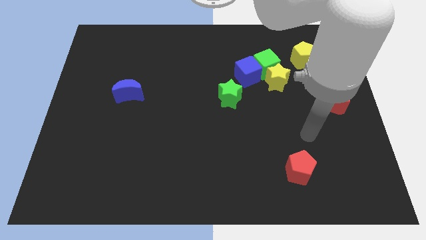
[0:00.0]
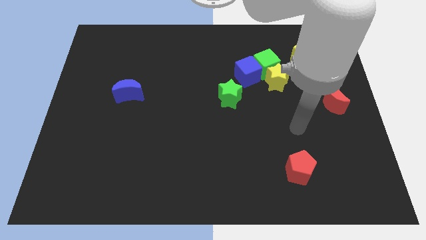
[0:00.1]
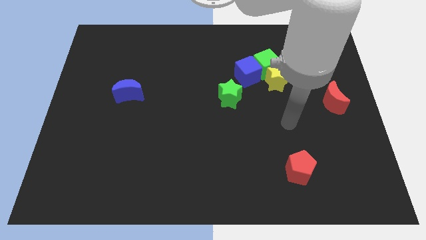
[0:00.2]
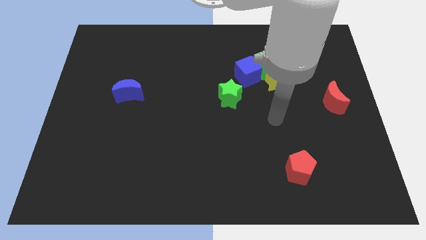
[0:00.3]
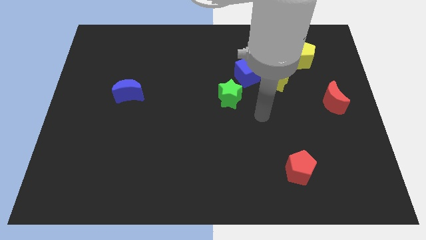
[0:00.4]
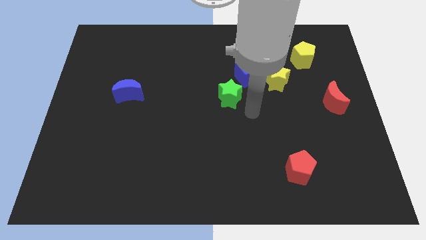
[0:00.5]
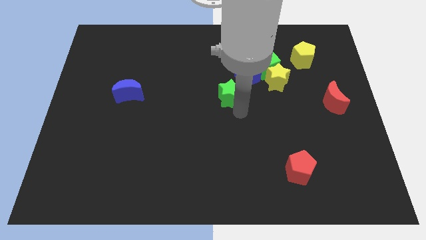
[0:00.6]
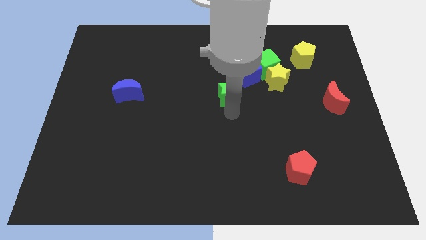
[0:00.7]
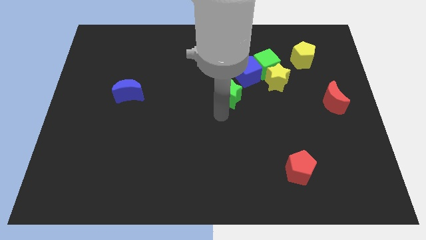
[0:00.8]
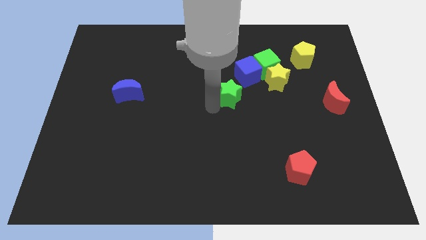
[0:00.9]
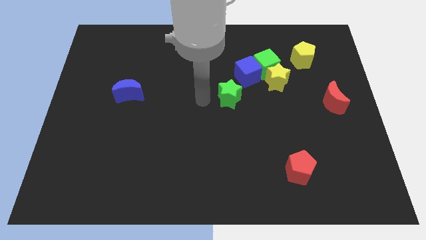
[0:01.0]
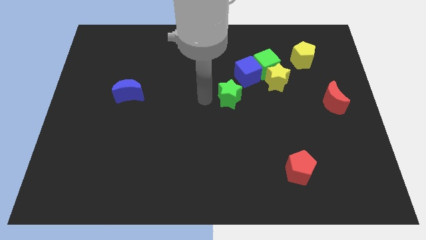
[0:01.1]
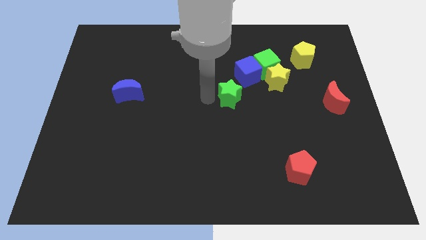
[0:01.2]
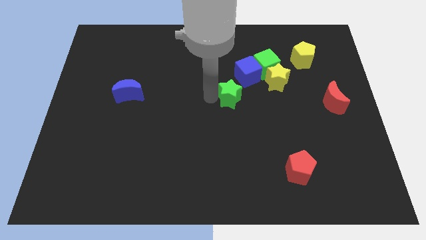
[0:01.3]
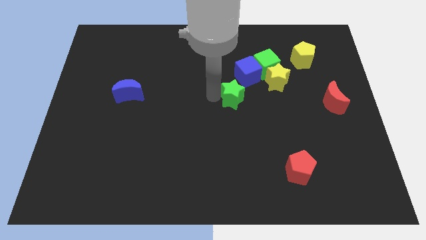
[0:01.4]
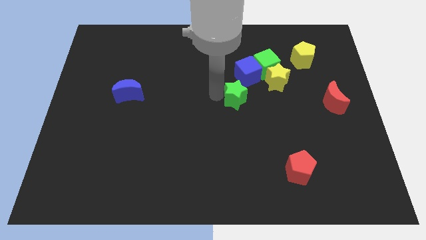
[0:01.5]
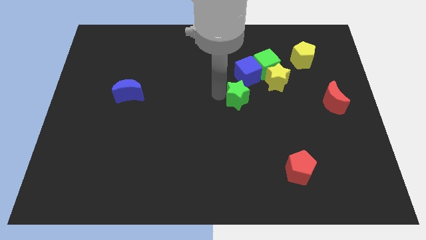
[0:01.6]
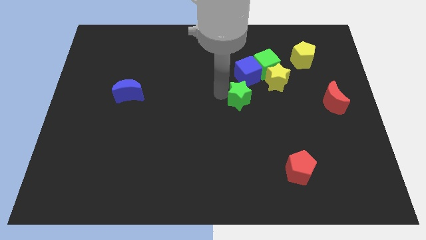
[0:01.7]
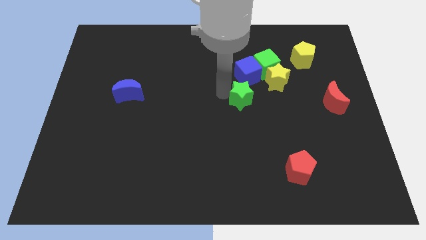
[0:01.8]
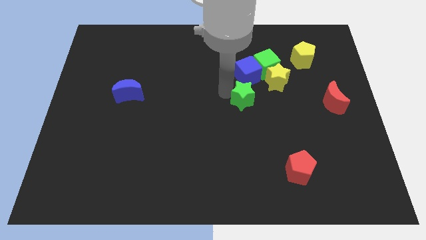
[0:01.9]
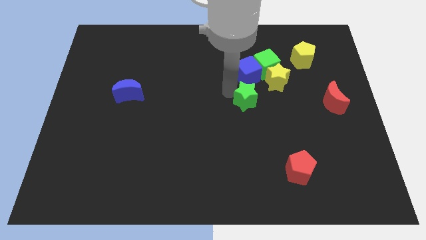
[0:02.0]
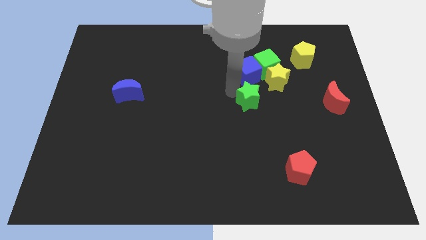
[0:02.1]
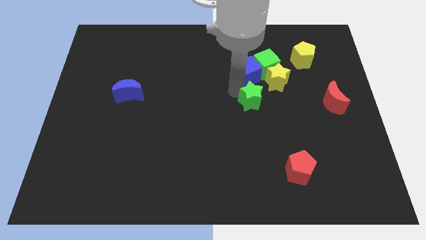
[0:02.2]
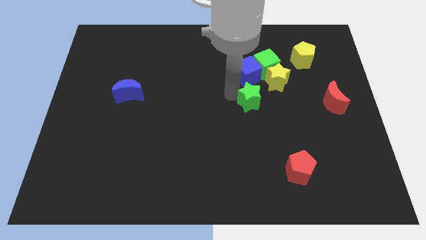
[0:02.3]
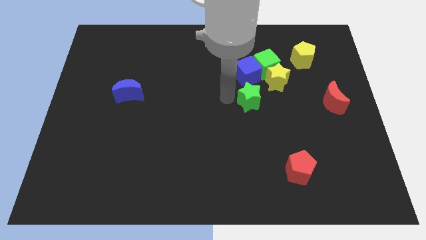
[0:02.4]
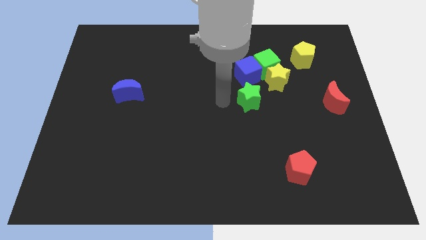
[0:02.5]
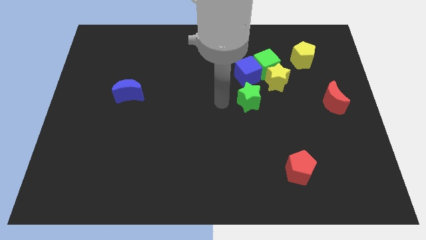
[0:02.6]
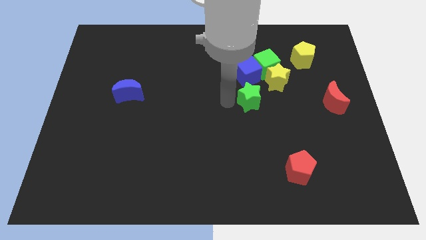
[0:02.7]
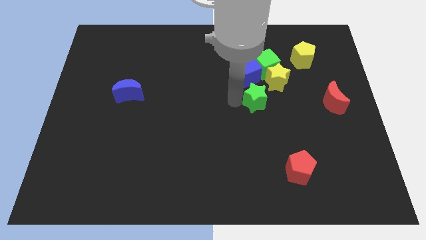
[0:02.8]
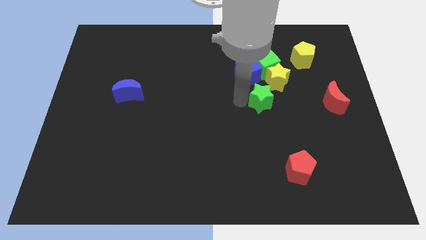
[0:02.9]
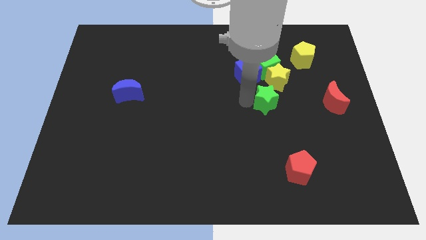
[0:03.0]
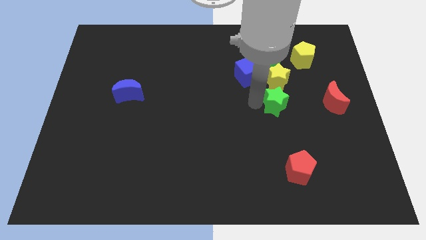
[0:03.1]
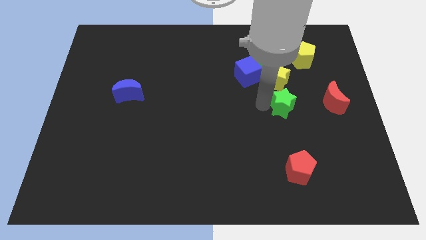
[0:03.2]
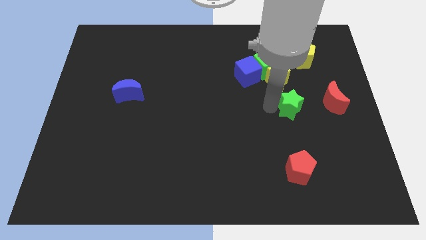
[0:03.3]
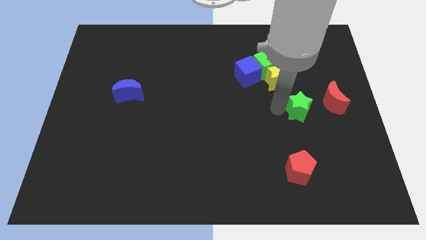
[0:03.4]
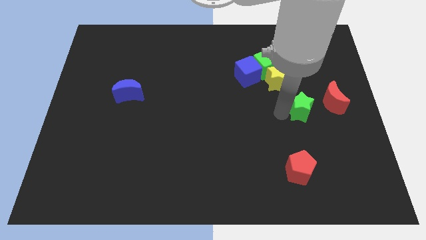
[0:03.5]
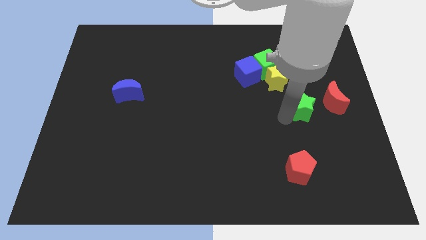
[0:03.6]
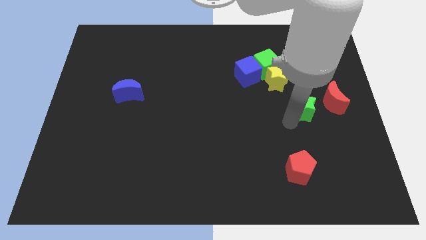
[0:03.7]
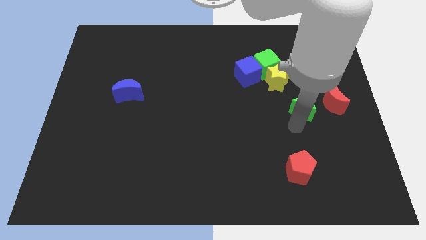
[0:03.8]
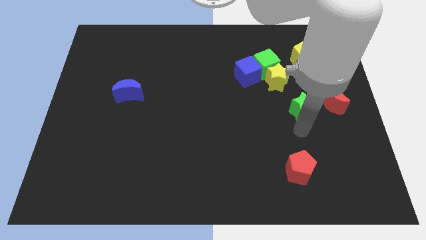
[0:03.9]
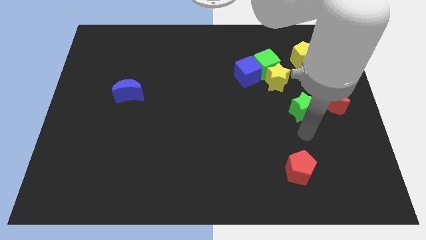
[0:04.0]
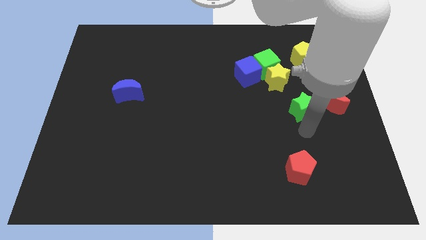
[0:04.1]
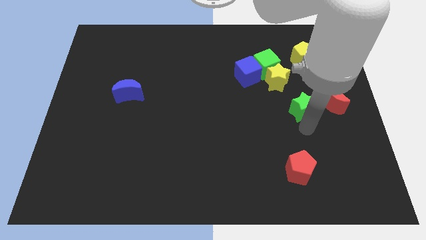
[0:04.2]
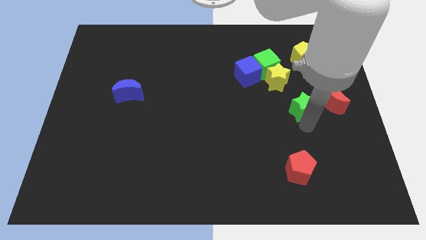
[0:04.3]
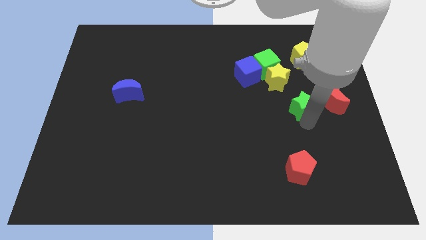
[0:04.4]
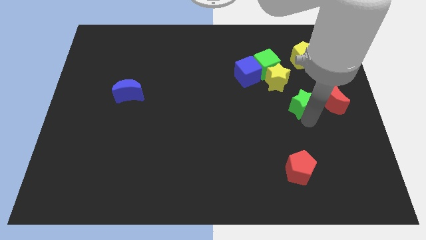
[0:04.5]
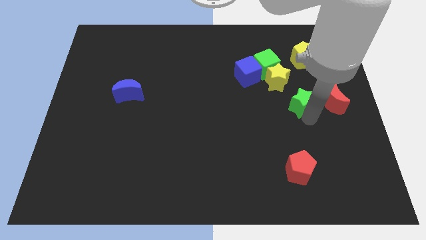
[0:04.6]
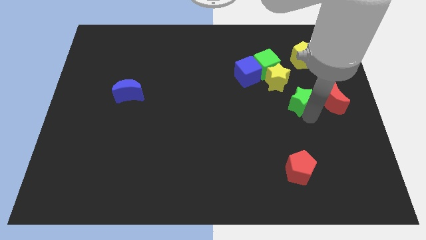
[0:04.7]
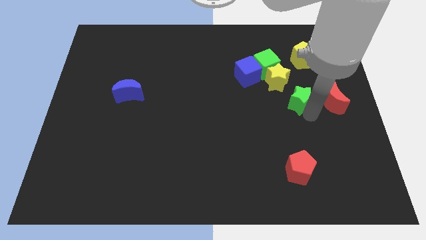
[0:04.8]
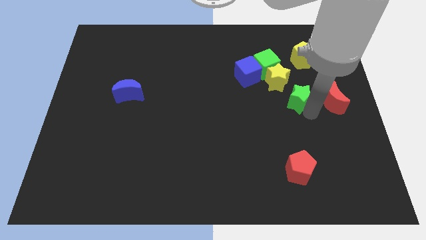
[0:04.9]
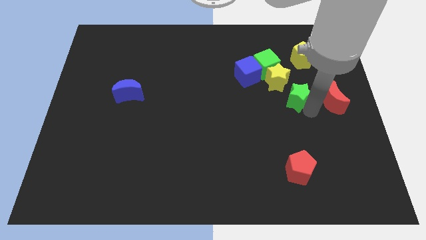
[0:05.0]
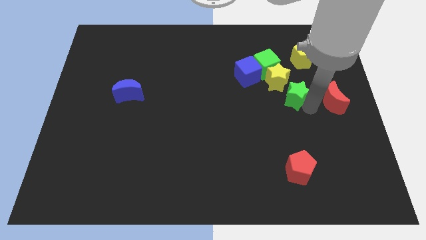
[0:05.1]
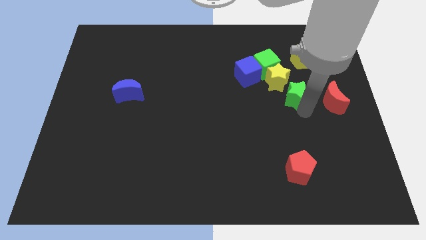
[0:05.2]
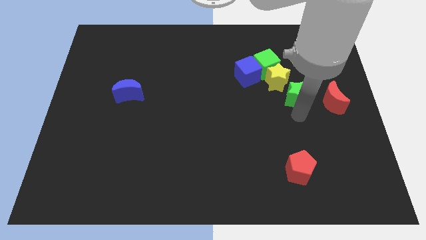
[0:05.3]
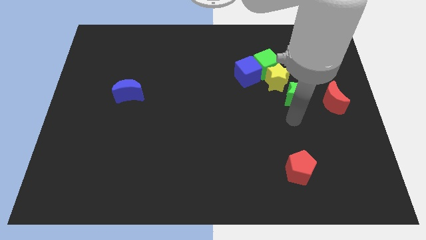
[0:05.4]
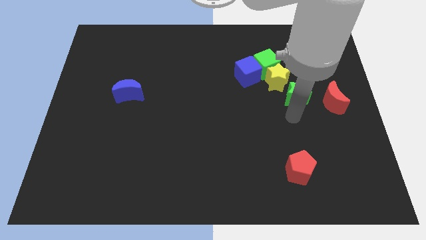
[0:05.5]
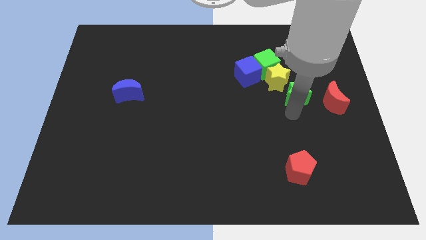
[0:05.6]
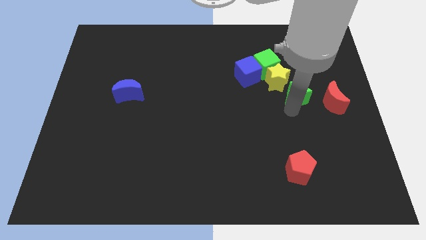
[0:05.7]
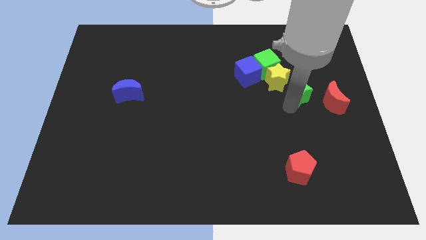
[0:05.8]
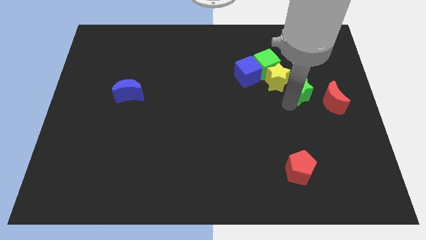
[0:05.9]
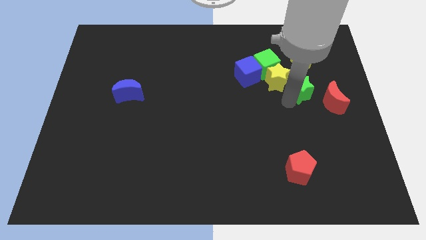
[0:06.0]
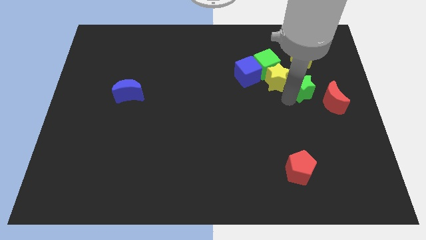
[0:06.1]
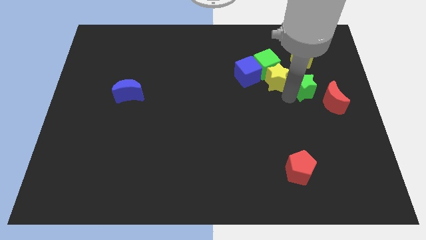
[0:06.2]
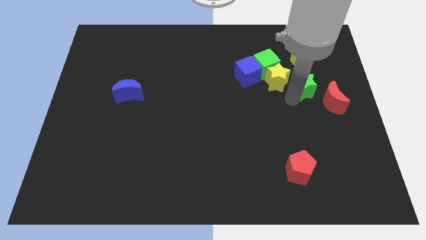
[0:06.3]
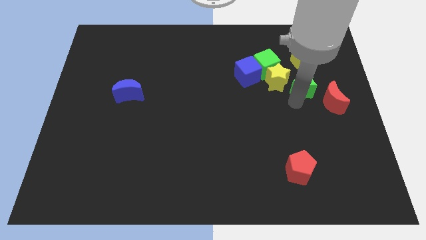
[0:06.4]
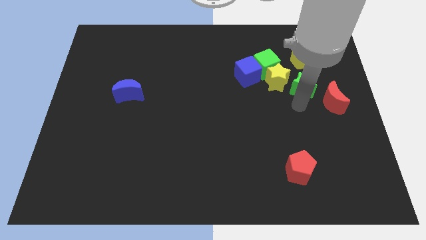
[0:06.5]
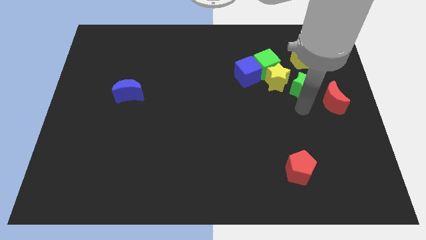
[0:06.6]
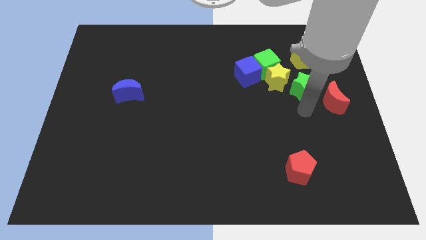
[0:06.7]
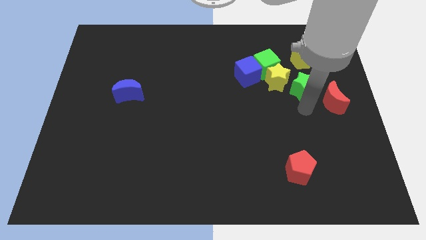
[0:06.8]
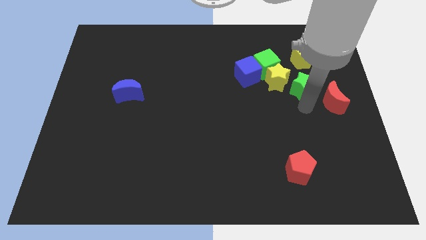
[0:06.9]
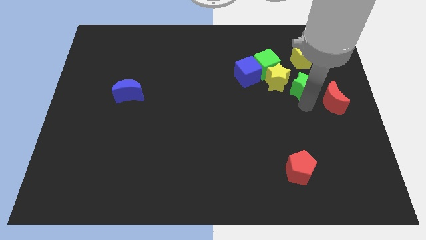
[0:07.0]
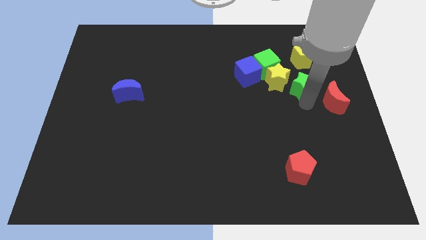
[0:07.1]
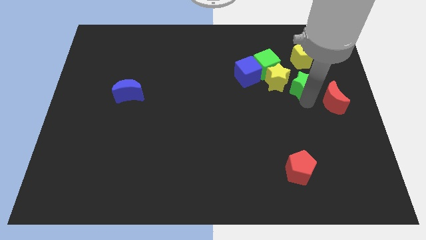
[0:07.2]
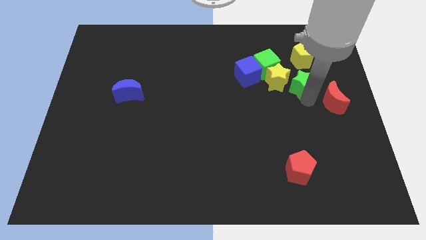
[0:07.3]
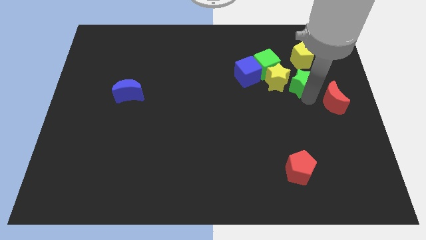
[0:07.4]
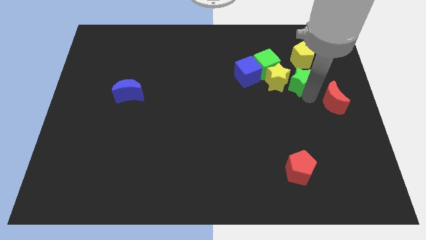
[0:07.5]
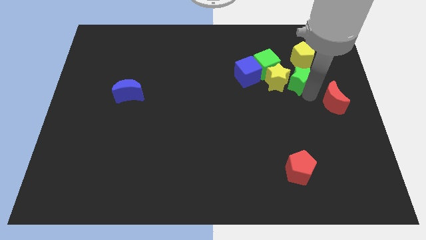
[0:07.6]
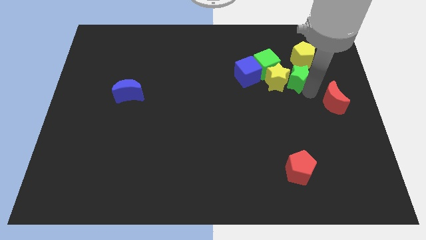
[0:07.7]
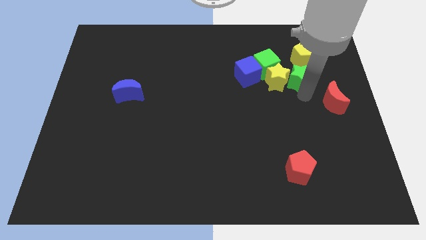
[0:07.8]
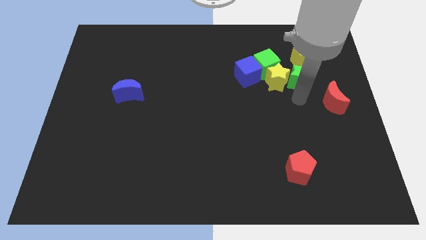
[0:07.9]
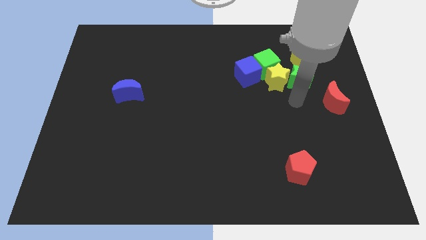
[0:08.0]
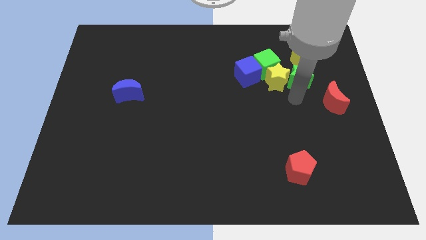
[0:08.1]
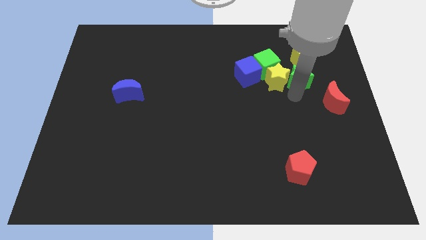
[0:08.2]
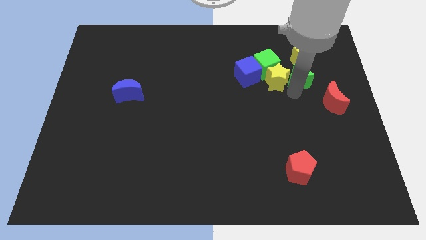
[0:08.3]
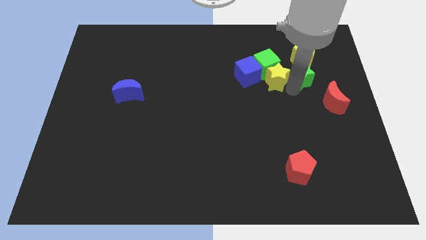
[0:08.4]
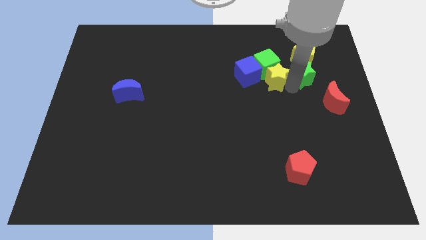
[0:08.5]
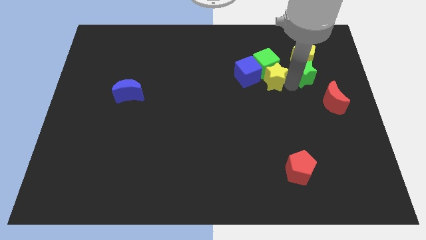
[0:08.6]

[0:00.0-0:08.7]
put the green star close to the yellow pentagon
